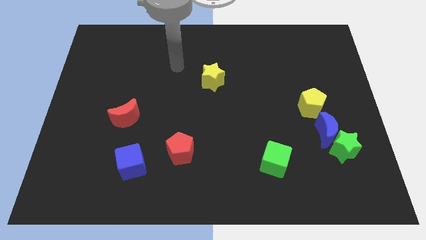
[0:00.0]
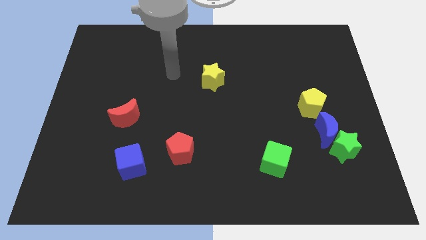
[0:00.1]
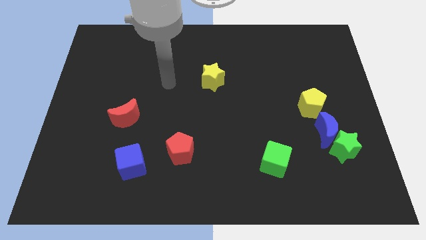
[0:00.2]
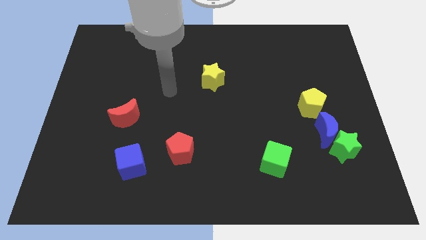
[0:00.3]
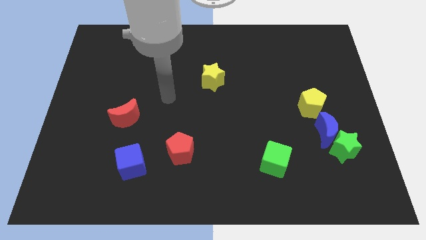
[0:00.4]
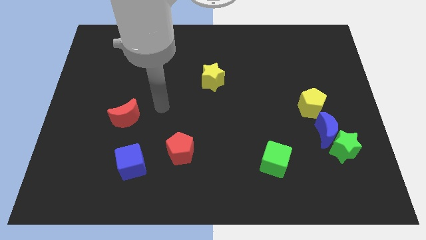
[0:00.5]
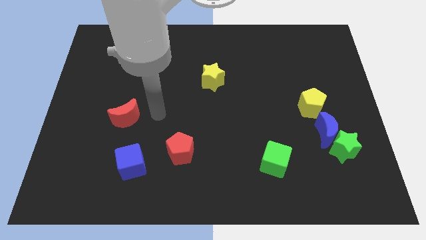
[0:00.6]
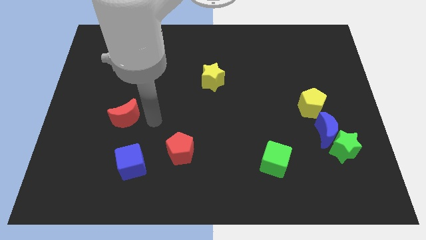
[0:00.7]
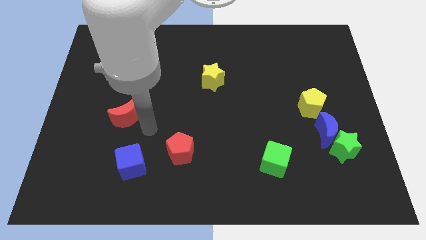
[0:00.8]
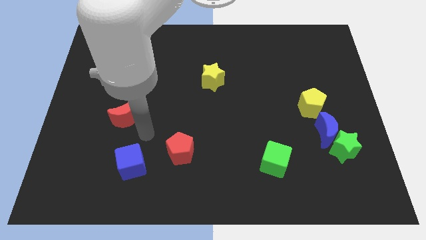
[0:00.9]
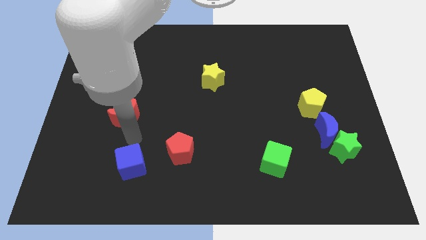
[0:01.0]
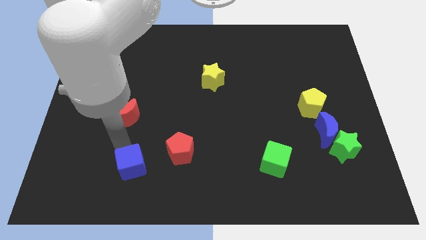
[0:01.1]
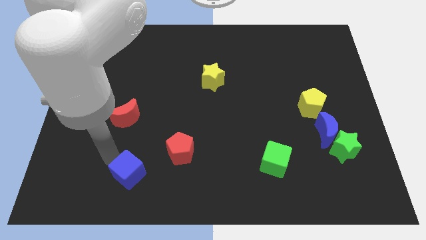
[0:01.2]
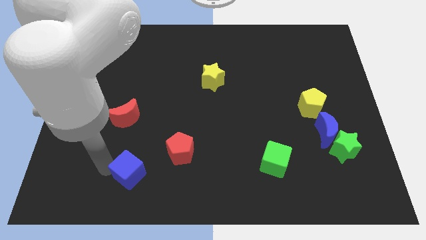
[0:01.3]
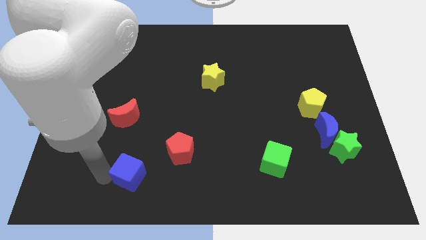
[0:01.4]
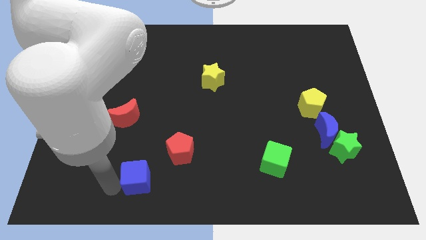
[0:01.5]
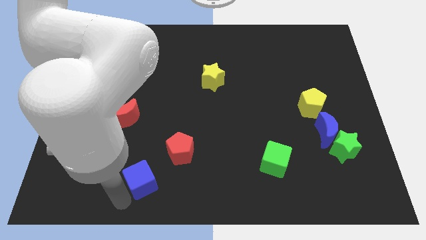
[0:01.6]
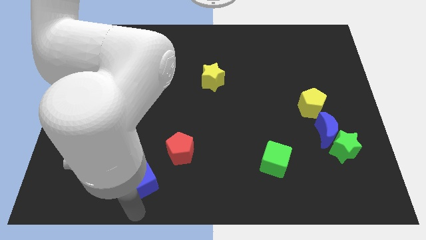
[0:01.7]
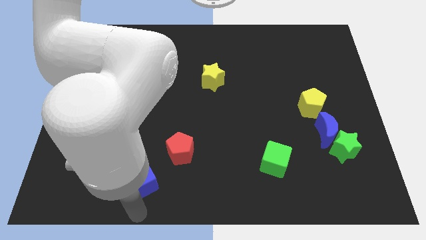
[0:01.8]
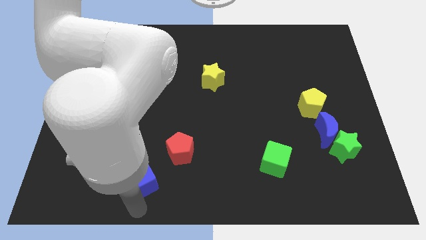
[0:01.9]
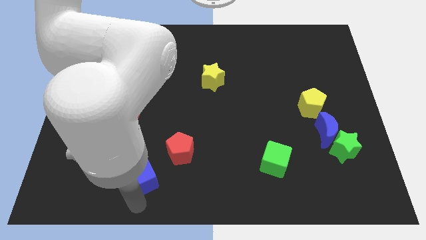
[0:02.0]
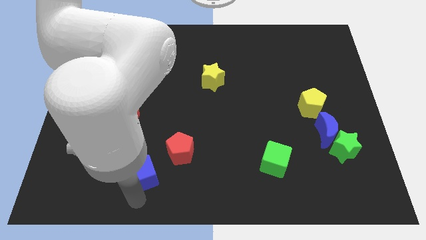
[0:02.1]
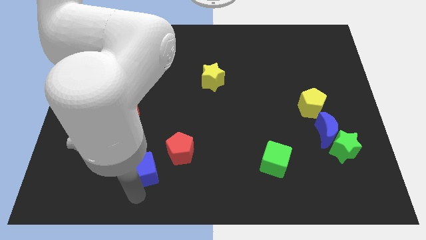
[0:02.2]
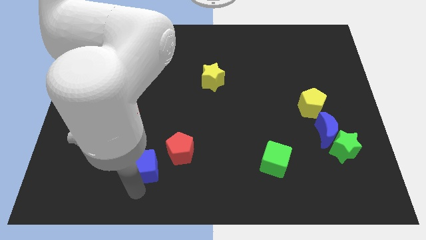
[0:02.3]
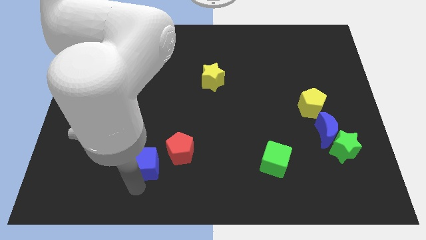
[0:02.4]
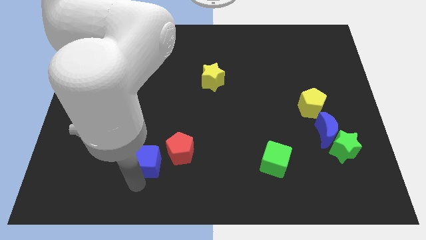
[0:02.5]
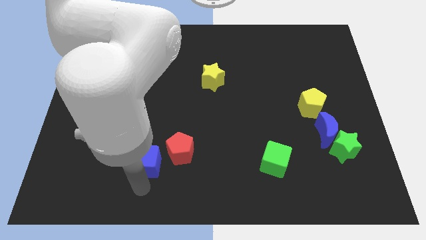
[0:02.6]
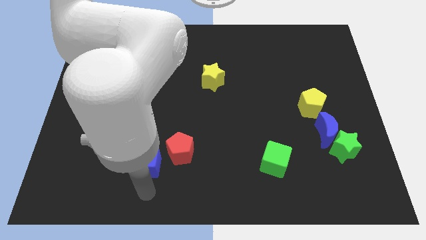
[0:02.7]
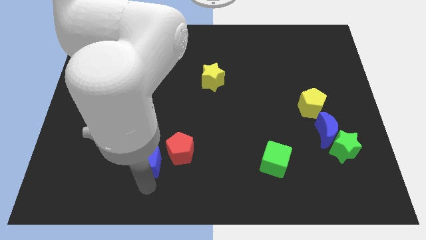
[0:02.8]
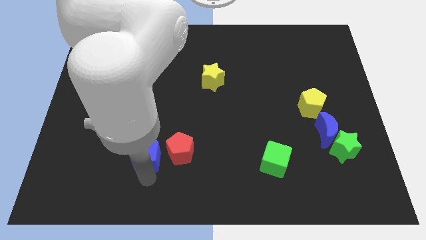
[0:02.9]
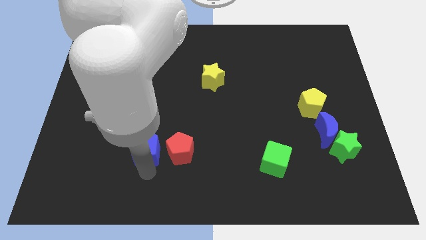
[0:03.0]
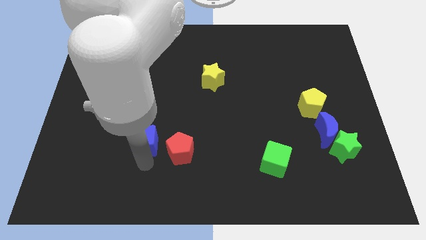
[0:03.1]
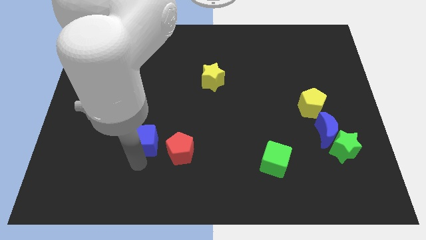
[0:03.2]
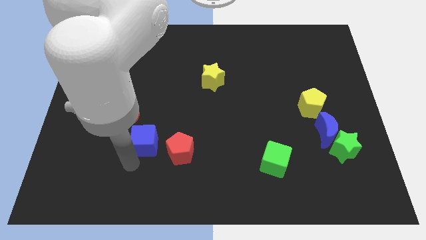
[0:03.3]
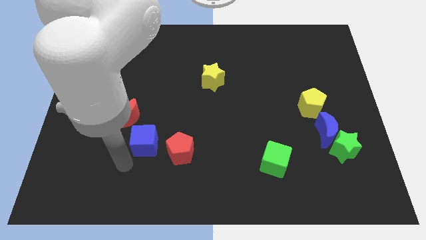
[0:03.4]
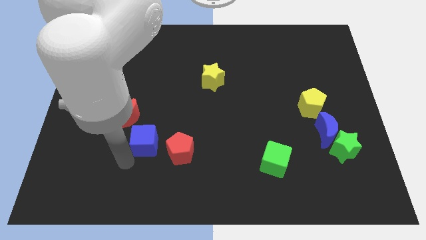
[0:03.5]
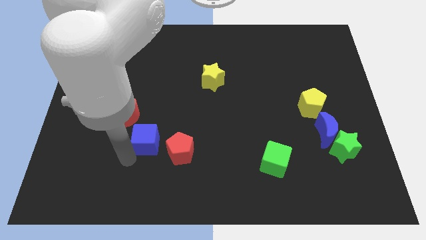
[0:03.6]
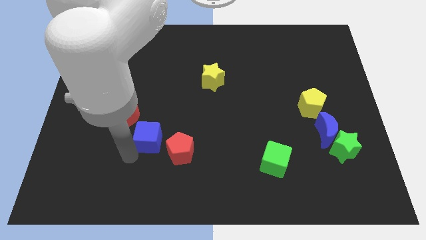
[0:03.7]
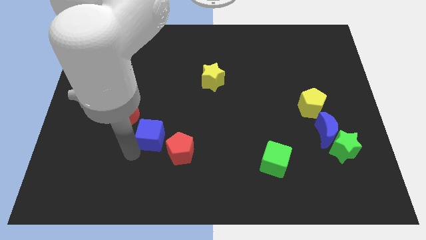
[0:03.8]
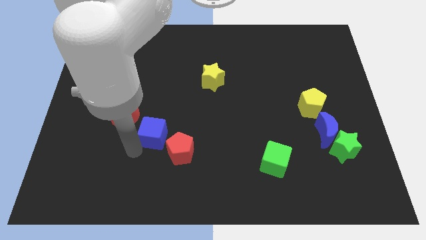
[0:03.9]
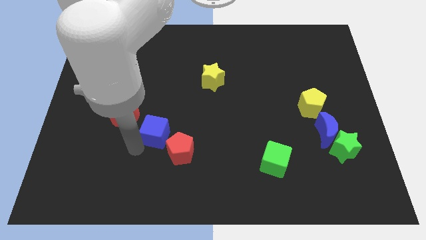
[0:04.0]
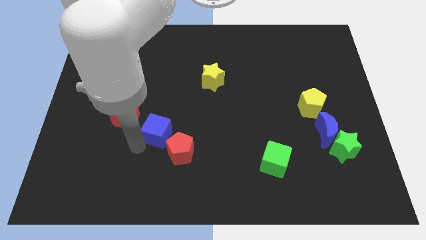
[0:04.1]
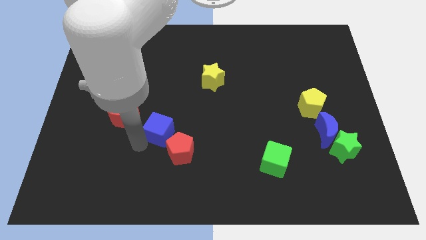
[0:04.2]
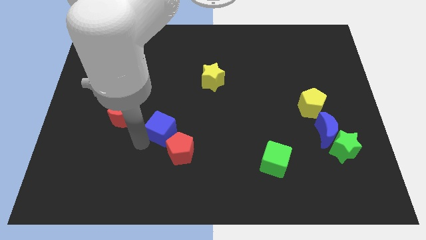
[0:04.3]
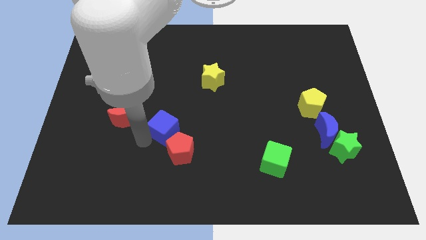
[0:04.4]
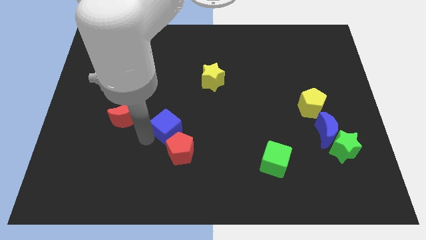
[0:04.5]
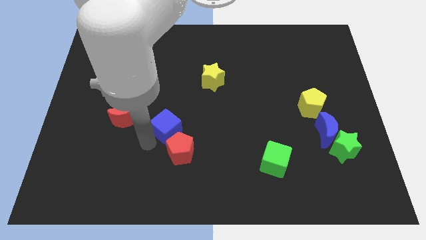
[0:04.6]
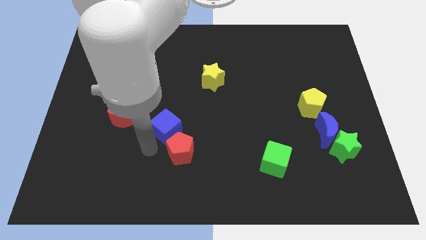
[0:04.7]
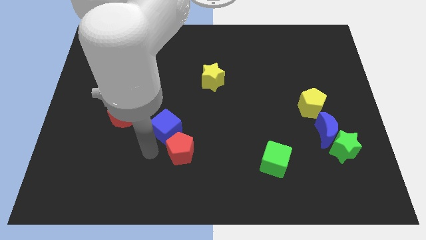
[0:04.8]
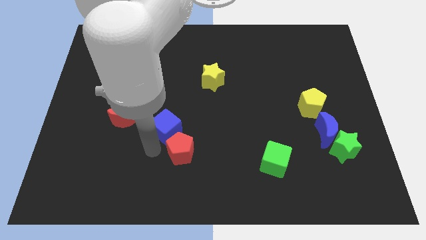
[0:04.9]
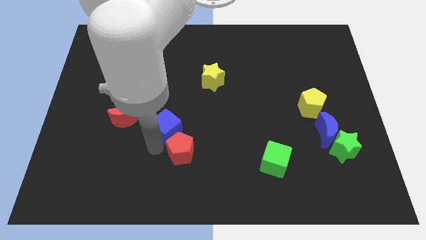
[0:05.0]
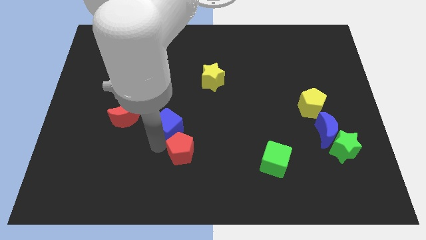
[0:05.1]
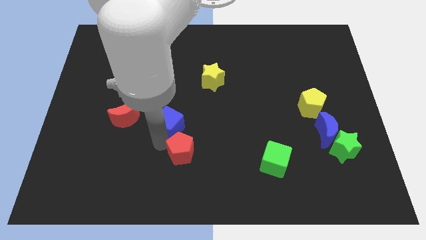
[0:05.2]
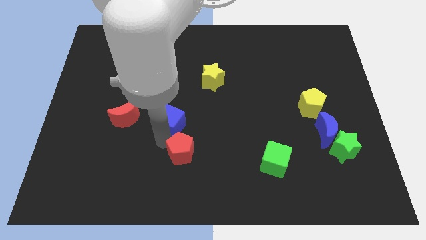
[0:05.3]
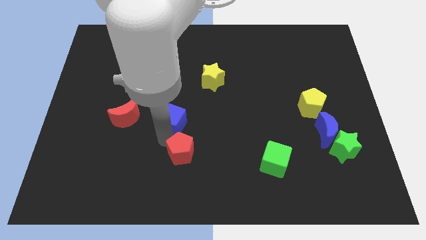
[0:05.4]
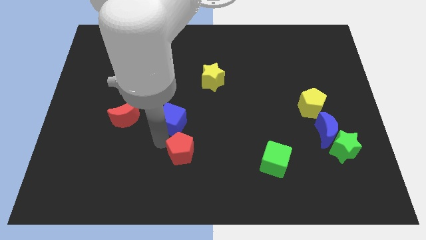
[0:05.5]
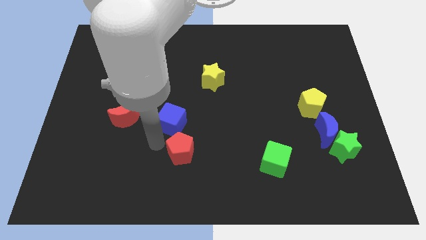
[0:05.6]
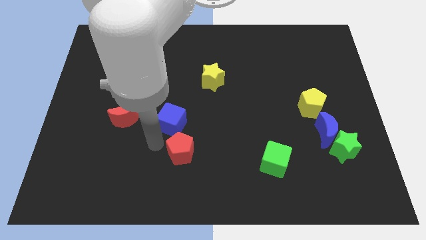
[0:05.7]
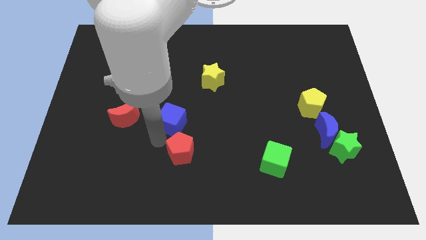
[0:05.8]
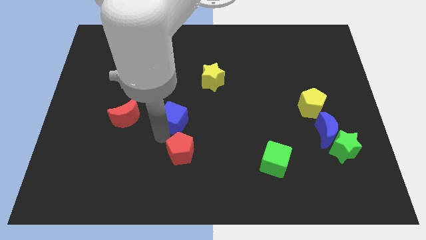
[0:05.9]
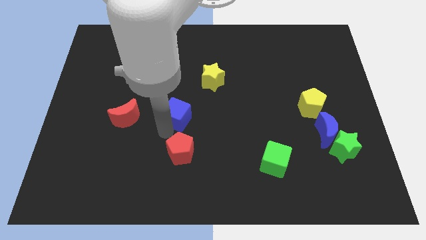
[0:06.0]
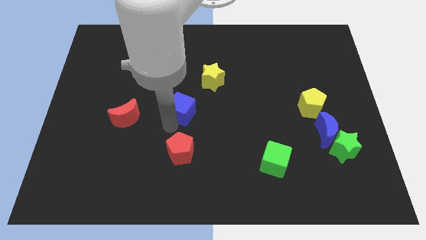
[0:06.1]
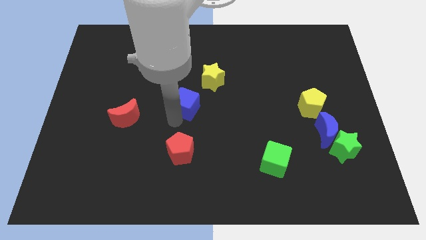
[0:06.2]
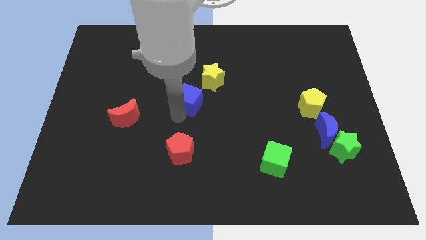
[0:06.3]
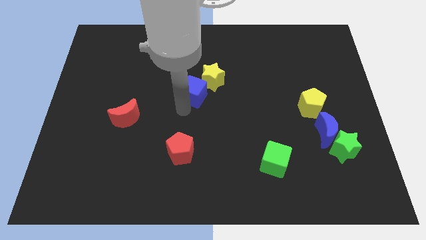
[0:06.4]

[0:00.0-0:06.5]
put the blue cube to the yellow star

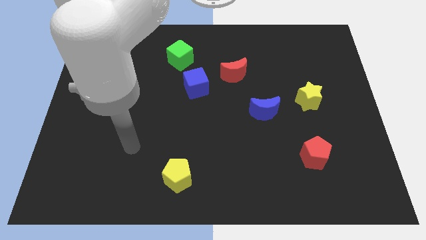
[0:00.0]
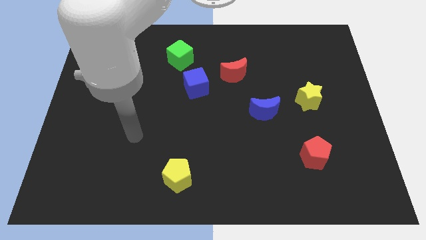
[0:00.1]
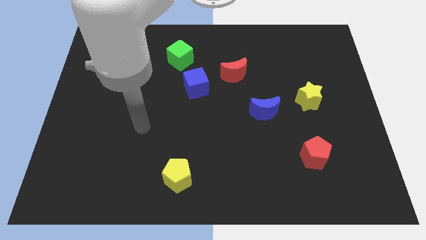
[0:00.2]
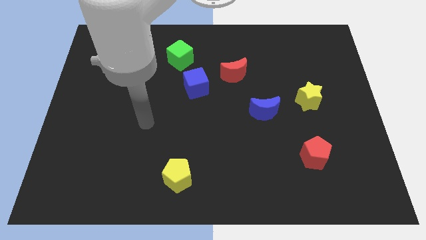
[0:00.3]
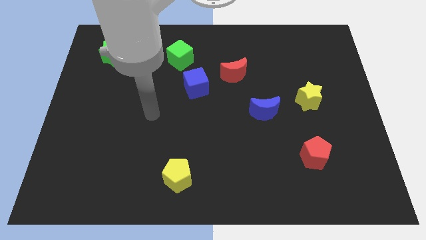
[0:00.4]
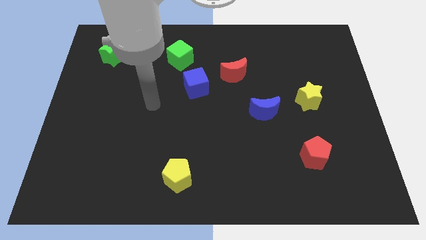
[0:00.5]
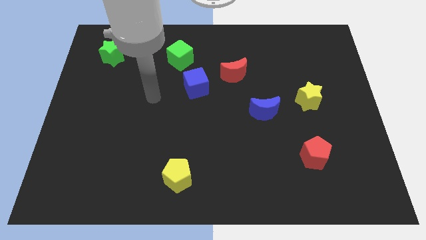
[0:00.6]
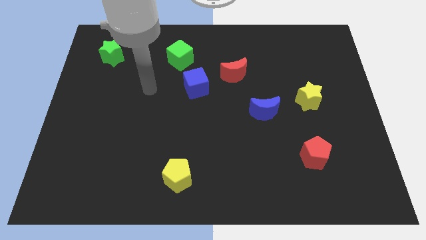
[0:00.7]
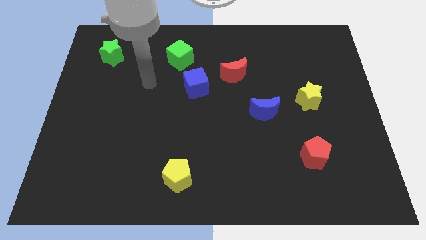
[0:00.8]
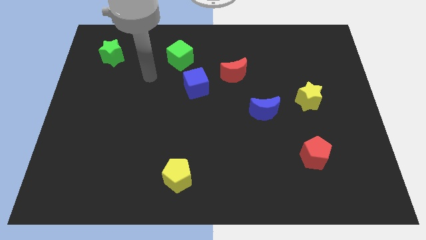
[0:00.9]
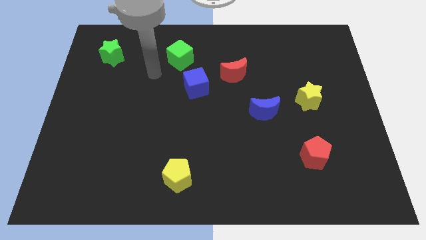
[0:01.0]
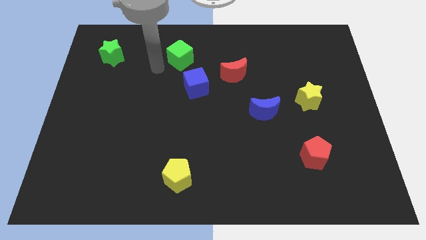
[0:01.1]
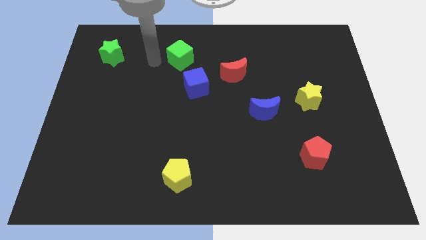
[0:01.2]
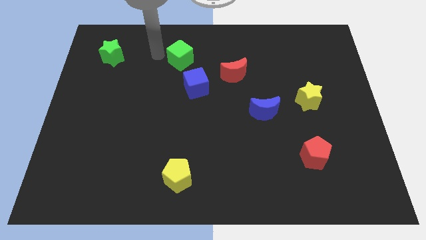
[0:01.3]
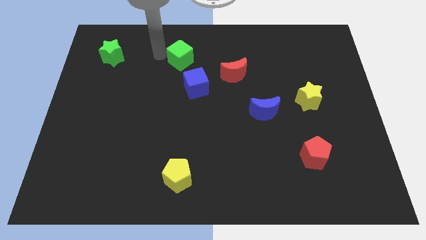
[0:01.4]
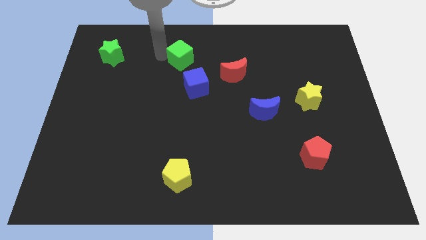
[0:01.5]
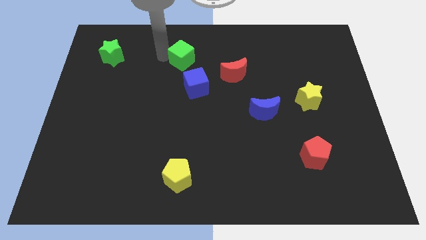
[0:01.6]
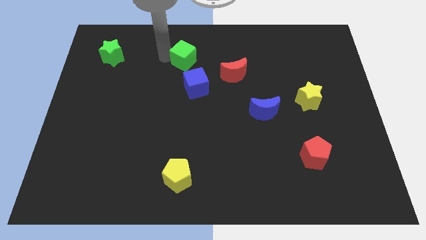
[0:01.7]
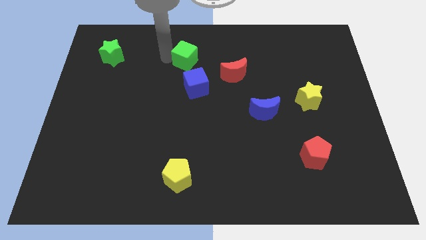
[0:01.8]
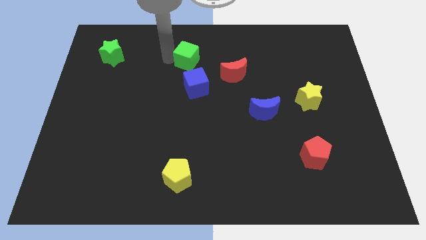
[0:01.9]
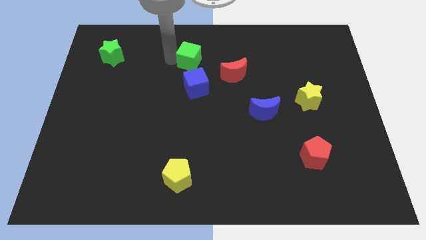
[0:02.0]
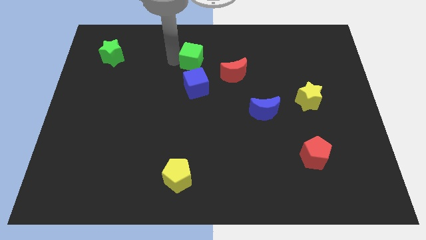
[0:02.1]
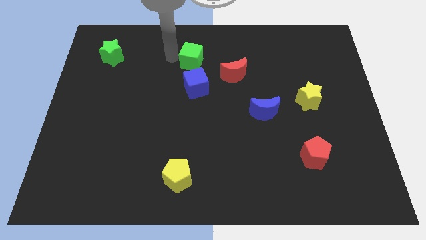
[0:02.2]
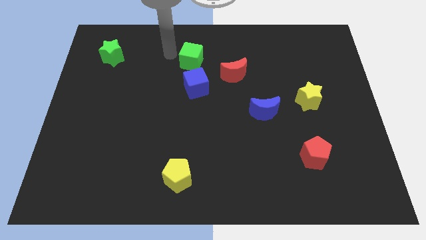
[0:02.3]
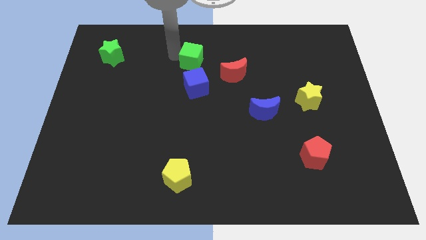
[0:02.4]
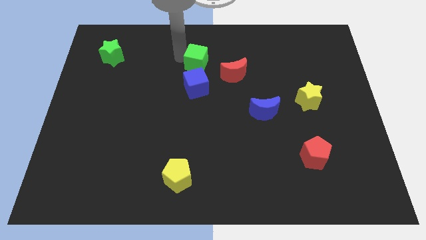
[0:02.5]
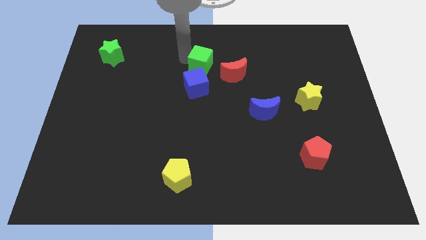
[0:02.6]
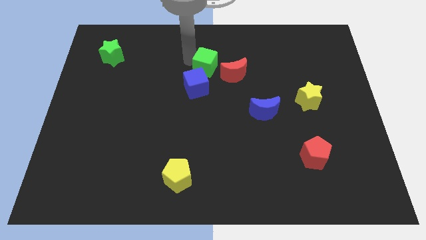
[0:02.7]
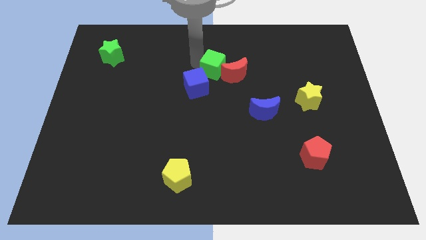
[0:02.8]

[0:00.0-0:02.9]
slide the green cube to the red moon
